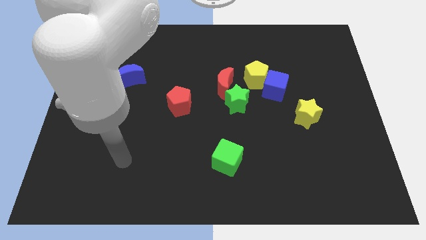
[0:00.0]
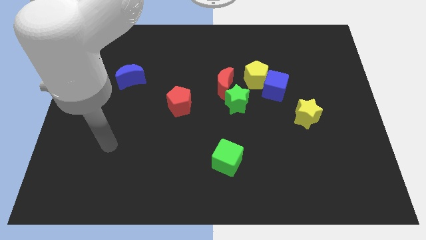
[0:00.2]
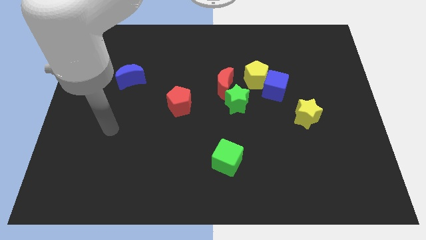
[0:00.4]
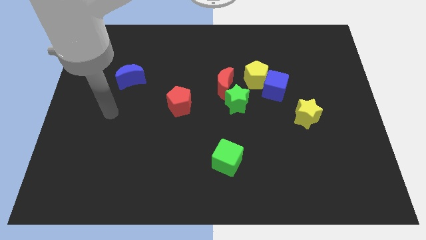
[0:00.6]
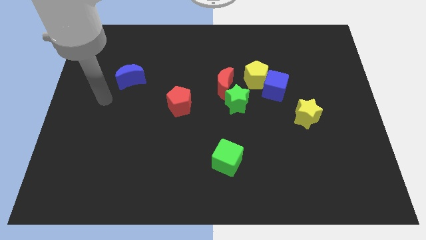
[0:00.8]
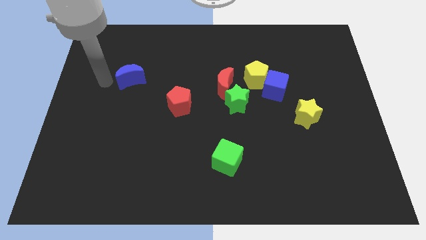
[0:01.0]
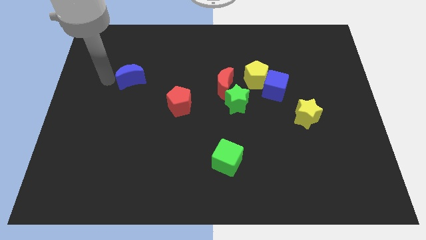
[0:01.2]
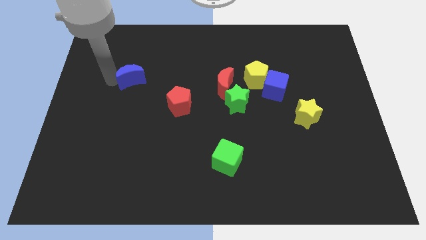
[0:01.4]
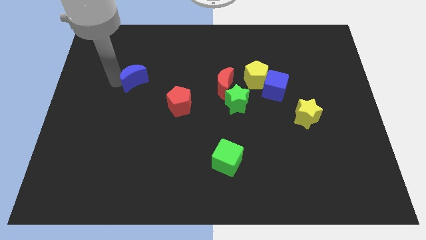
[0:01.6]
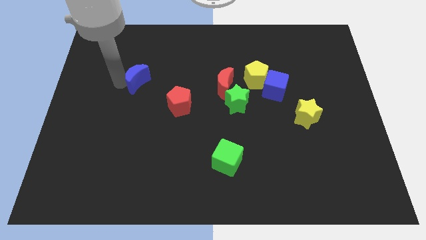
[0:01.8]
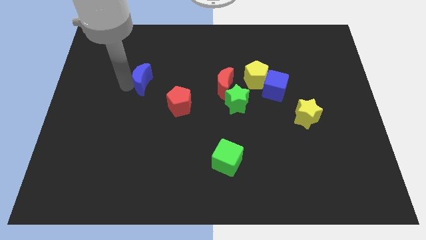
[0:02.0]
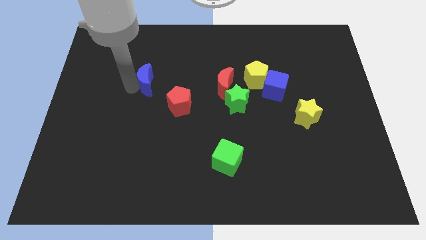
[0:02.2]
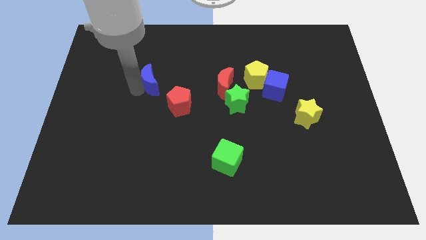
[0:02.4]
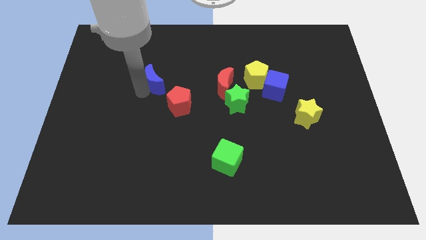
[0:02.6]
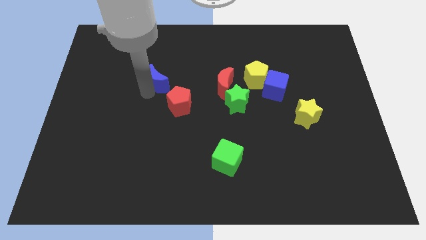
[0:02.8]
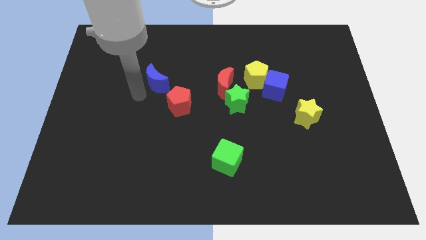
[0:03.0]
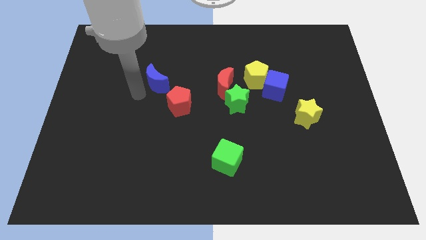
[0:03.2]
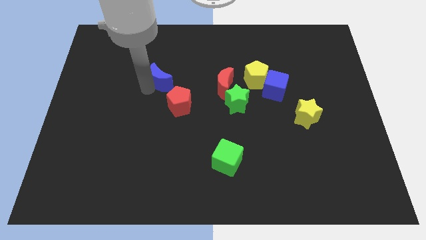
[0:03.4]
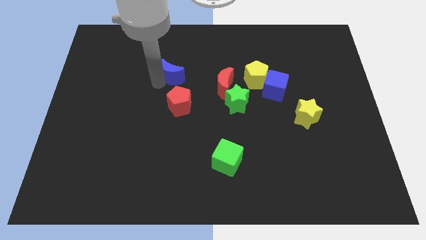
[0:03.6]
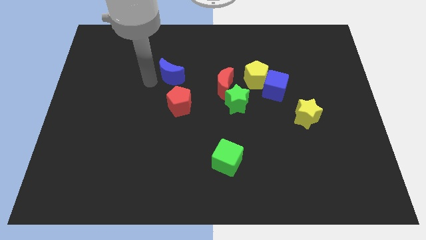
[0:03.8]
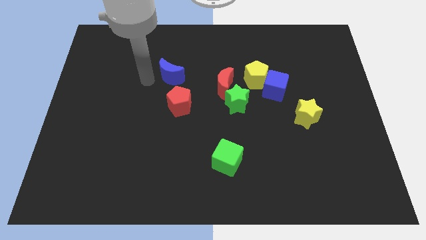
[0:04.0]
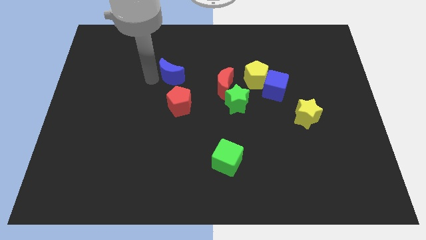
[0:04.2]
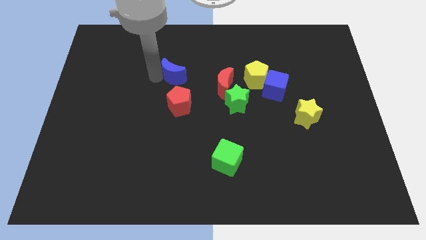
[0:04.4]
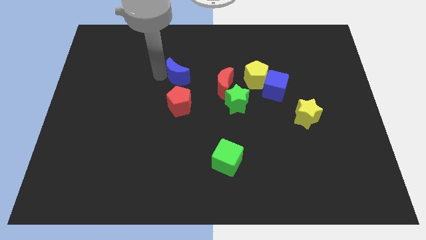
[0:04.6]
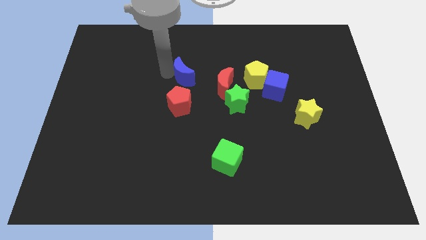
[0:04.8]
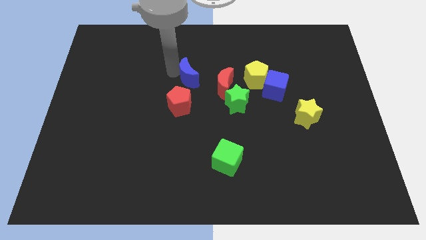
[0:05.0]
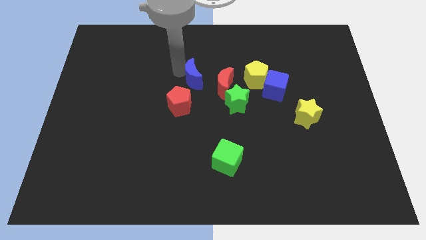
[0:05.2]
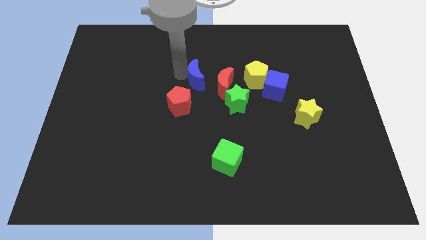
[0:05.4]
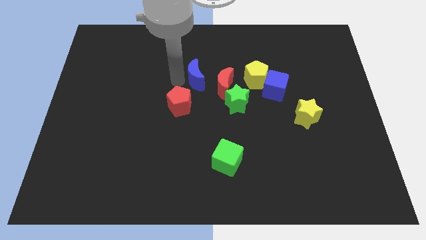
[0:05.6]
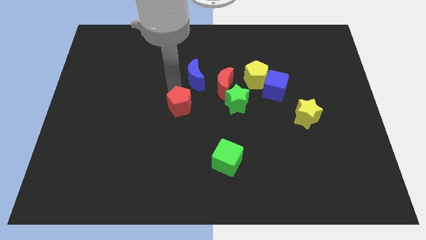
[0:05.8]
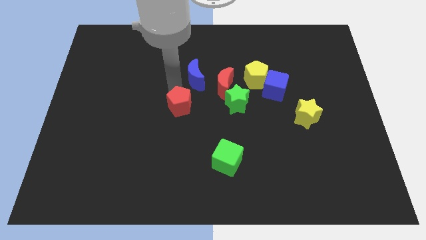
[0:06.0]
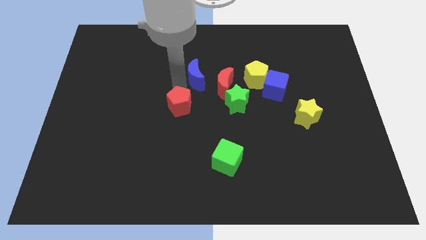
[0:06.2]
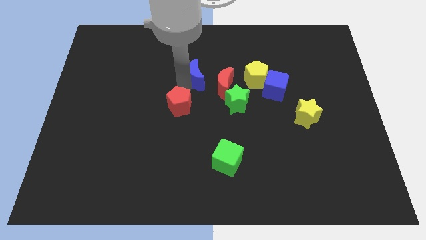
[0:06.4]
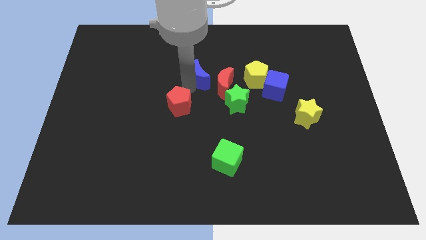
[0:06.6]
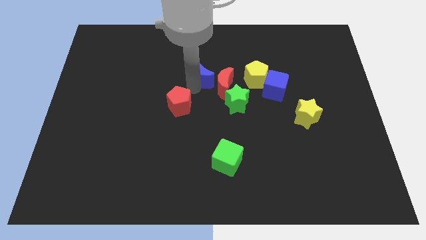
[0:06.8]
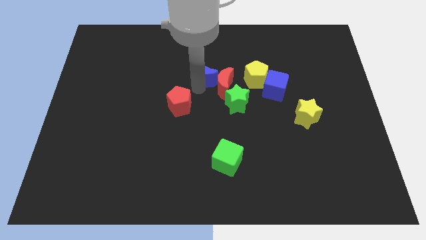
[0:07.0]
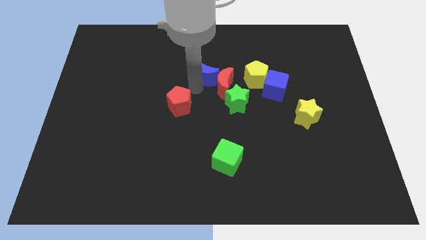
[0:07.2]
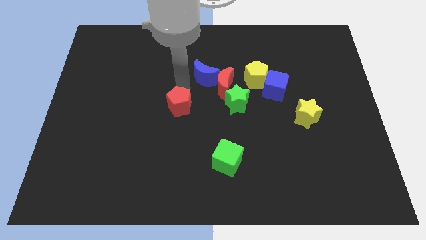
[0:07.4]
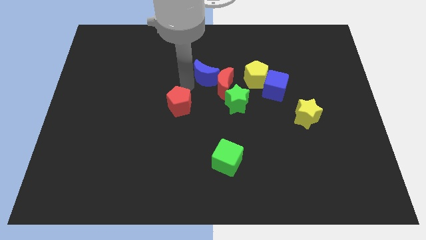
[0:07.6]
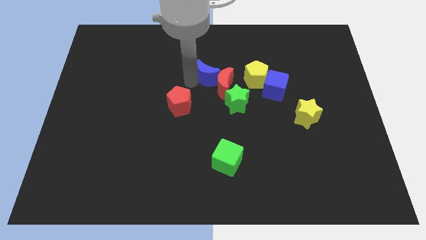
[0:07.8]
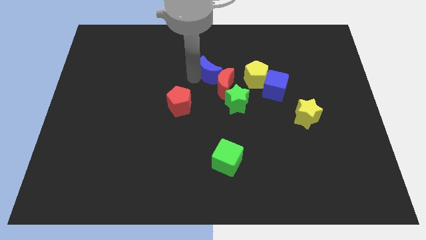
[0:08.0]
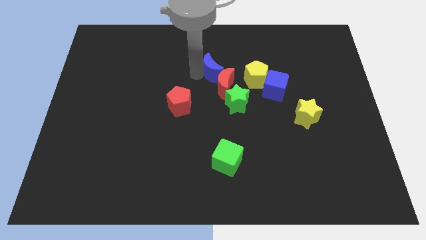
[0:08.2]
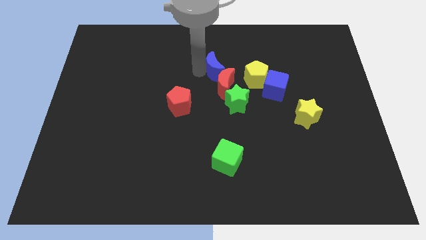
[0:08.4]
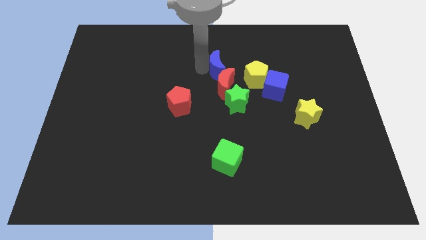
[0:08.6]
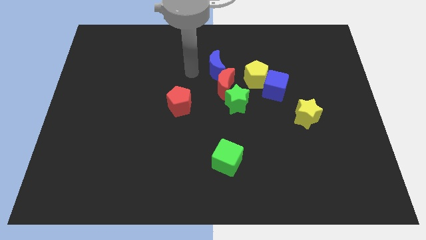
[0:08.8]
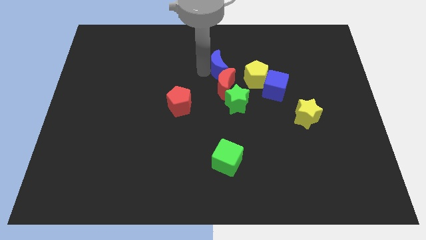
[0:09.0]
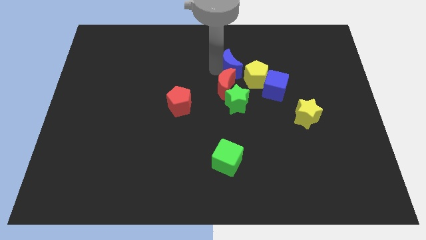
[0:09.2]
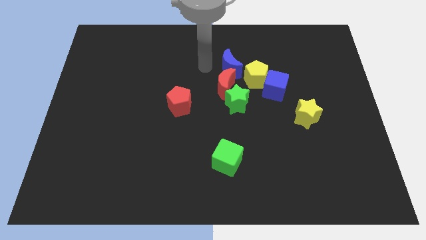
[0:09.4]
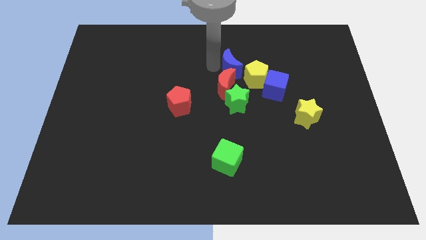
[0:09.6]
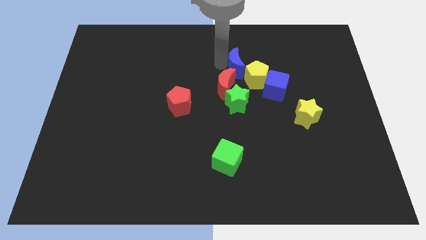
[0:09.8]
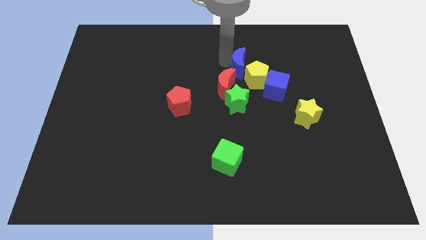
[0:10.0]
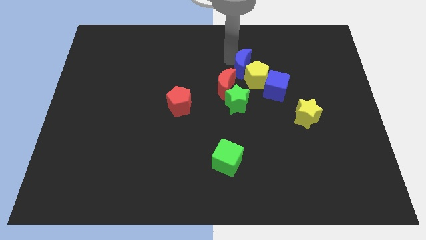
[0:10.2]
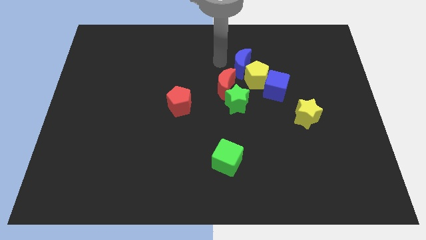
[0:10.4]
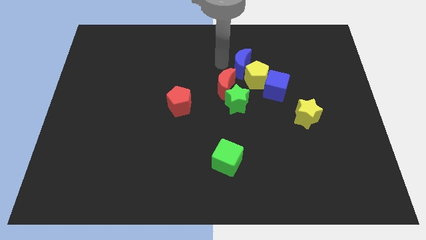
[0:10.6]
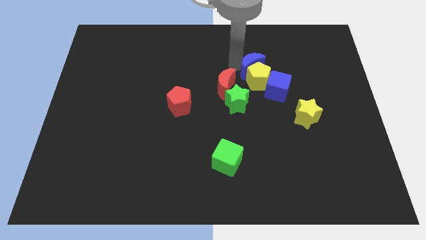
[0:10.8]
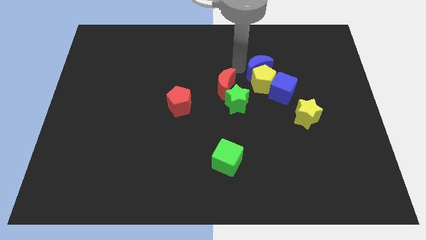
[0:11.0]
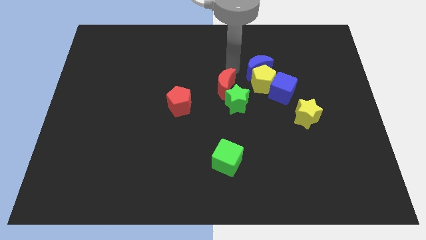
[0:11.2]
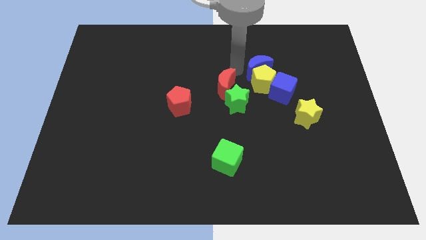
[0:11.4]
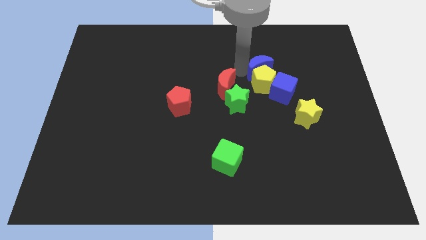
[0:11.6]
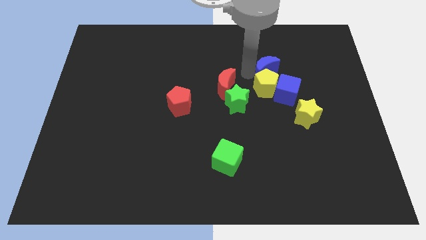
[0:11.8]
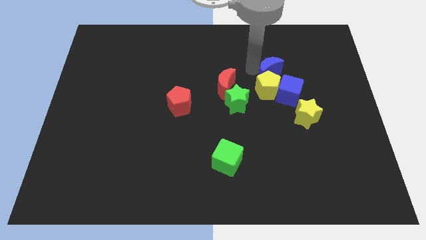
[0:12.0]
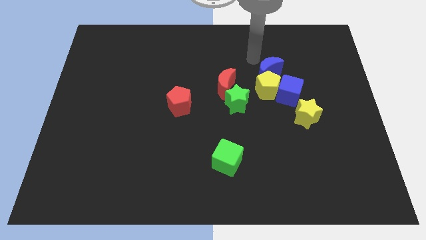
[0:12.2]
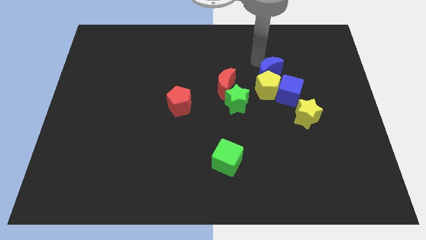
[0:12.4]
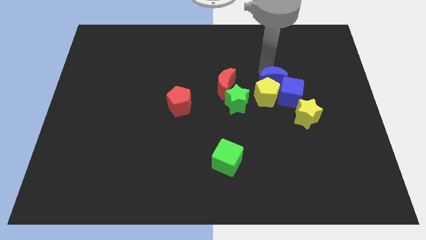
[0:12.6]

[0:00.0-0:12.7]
push the blue moon next to the blue cube

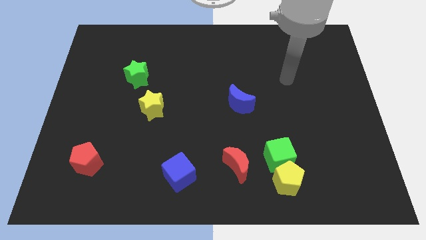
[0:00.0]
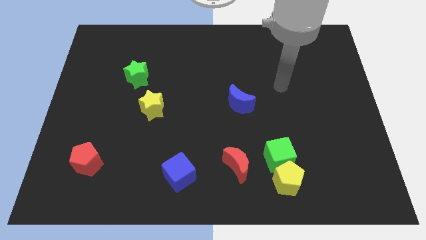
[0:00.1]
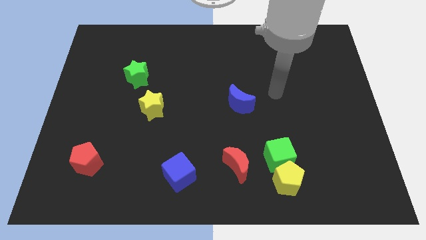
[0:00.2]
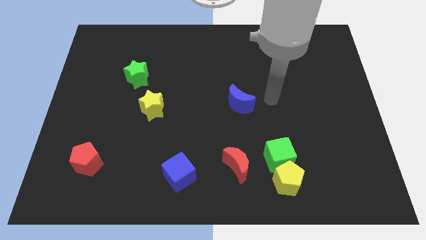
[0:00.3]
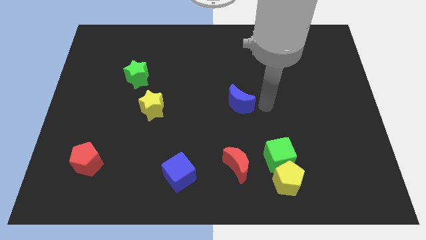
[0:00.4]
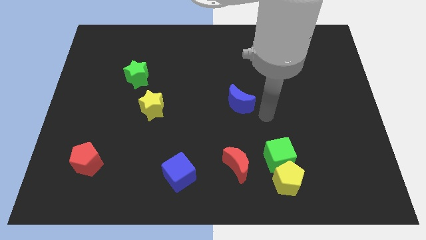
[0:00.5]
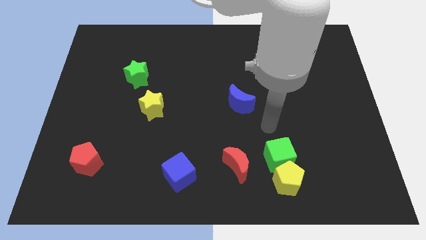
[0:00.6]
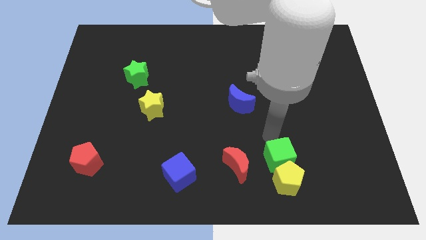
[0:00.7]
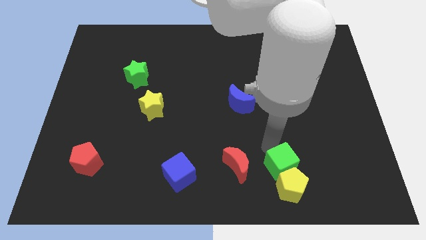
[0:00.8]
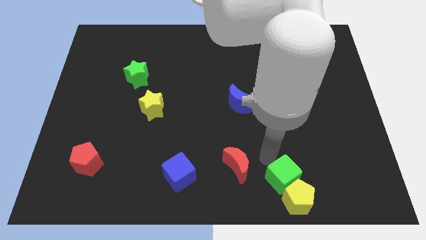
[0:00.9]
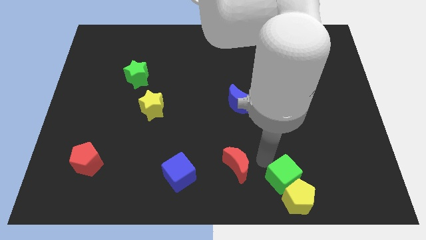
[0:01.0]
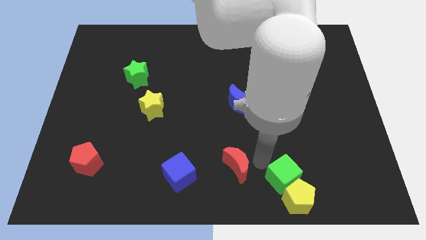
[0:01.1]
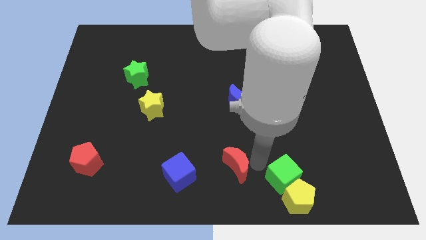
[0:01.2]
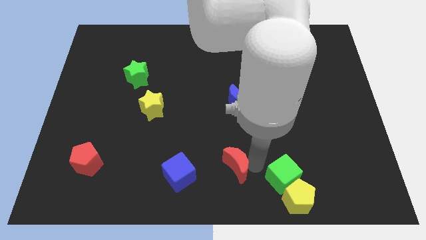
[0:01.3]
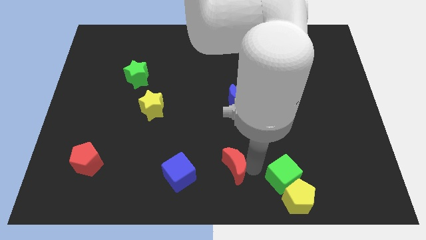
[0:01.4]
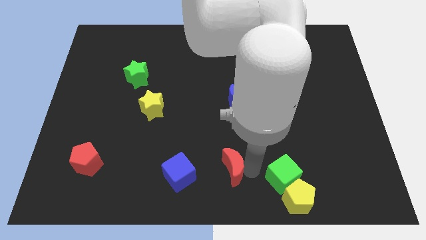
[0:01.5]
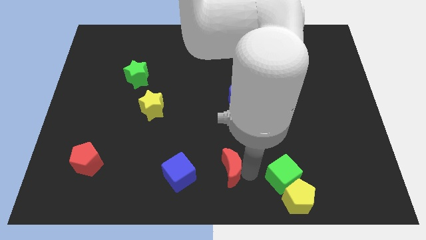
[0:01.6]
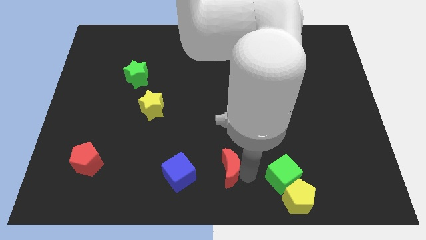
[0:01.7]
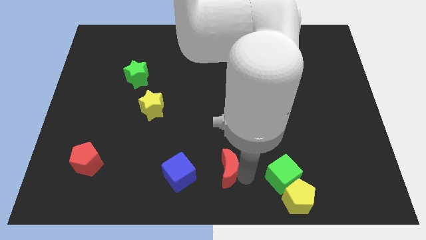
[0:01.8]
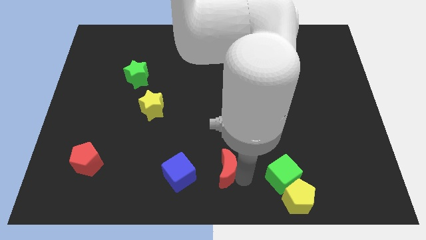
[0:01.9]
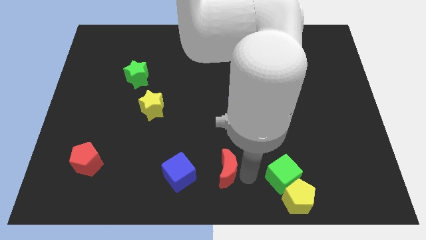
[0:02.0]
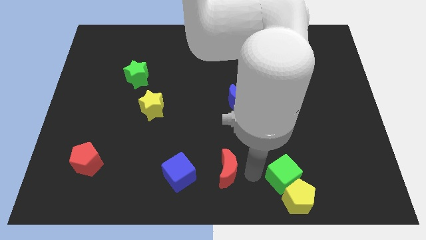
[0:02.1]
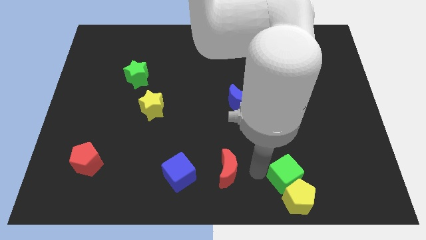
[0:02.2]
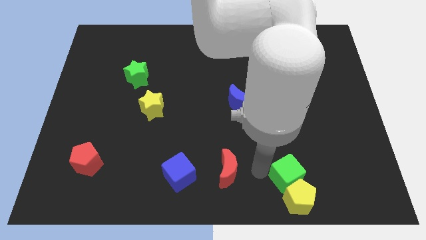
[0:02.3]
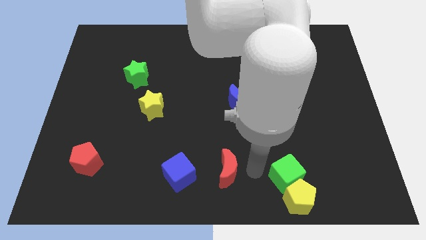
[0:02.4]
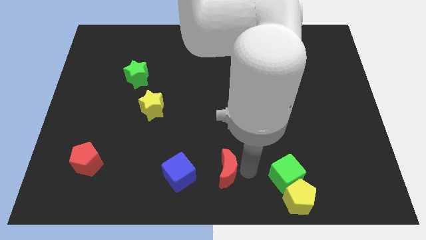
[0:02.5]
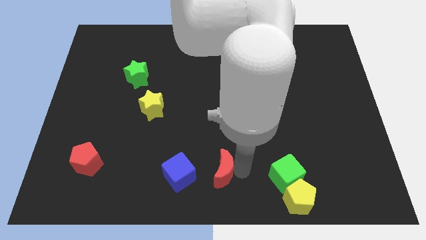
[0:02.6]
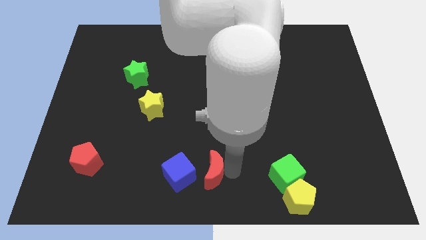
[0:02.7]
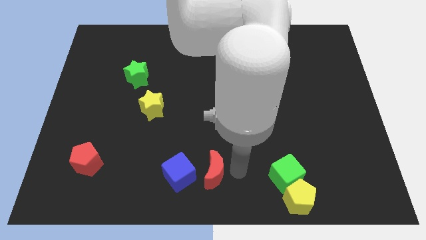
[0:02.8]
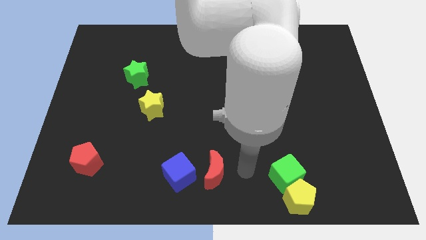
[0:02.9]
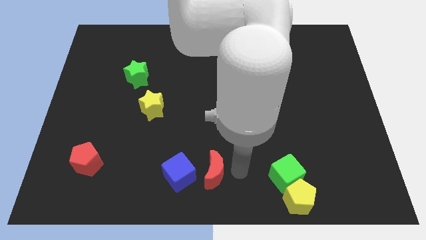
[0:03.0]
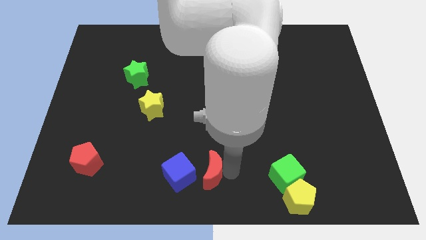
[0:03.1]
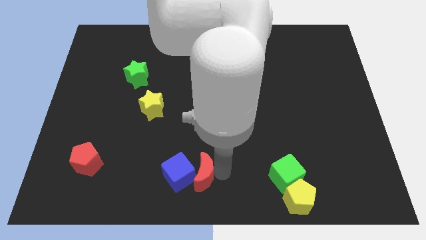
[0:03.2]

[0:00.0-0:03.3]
put the red moon next to the blue cube
